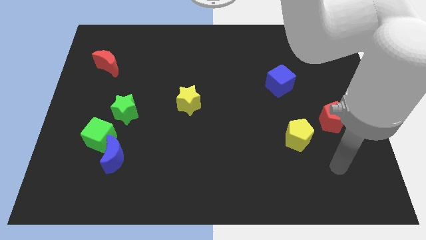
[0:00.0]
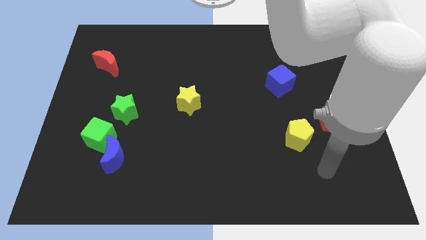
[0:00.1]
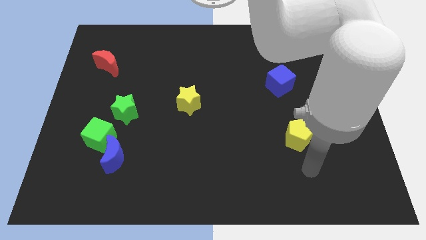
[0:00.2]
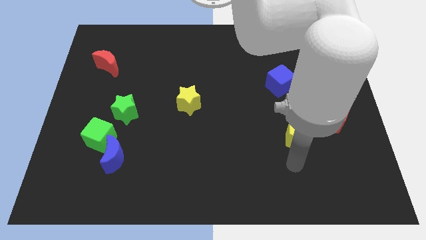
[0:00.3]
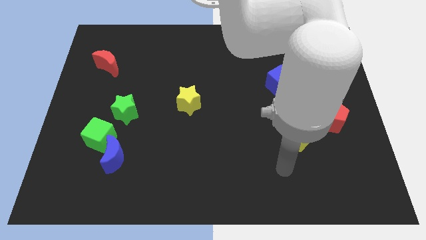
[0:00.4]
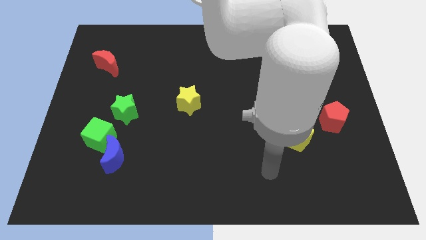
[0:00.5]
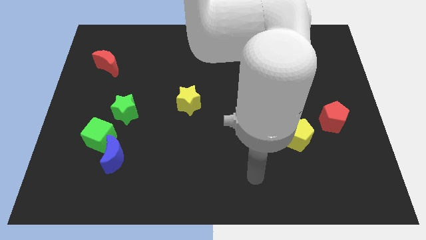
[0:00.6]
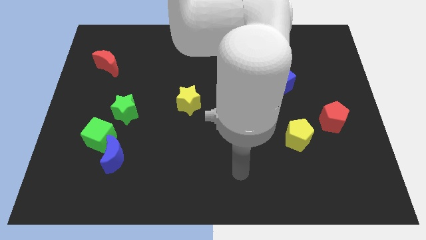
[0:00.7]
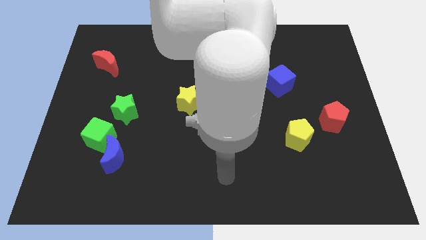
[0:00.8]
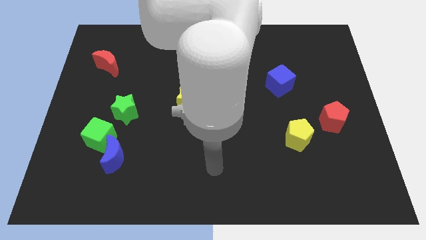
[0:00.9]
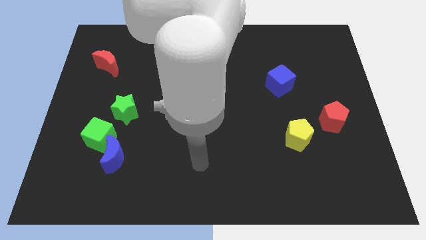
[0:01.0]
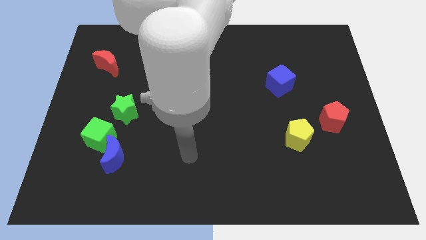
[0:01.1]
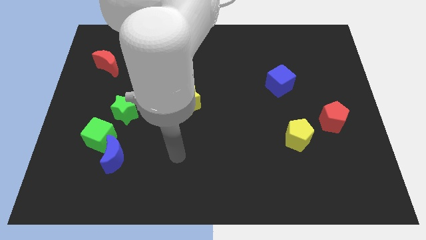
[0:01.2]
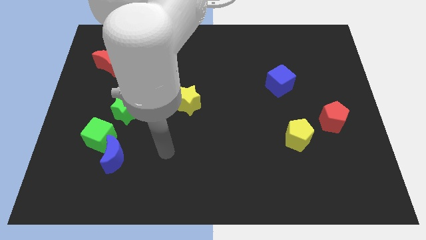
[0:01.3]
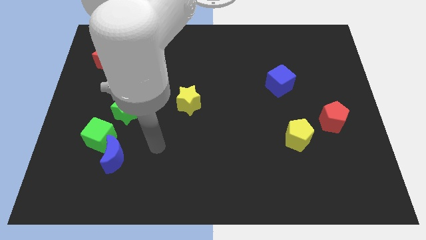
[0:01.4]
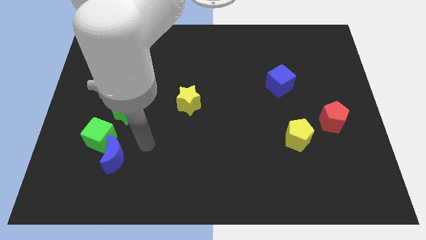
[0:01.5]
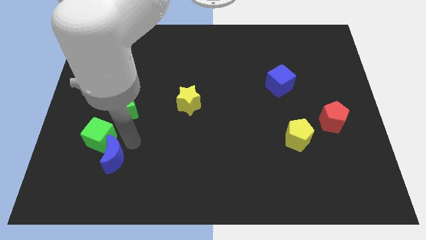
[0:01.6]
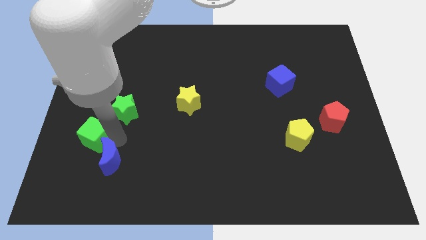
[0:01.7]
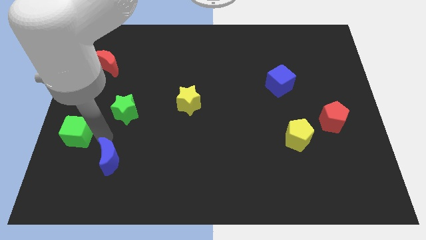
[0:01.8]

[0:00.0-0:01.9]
separate the blue moon from the green cube

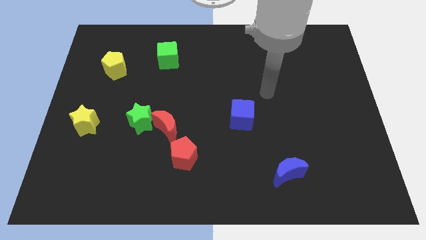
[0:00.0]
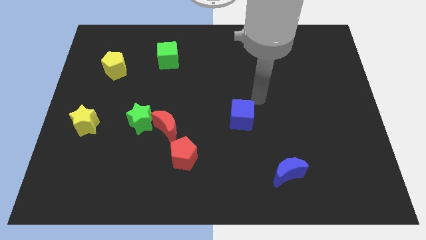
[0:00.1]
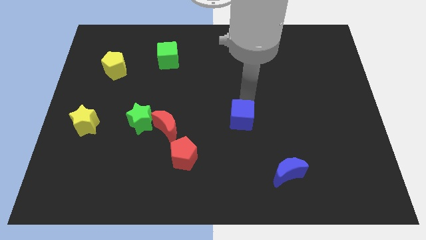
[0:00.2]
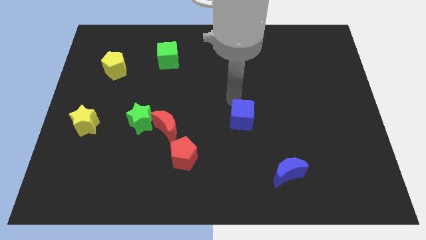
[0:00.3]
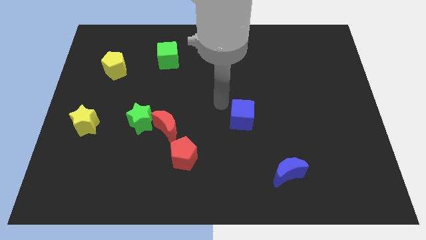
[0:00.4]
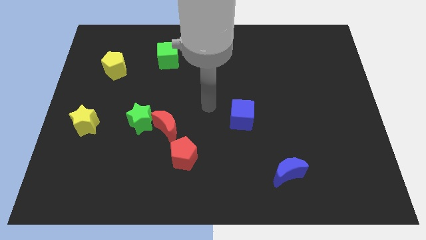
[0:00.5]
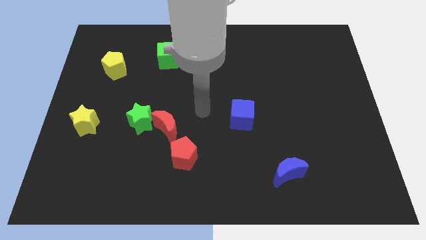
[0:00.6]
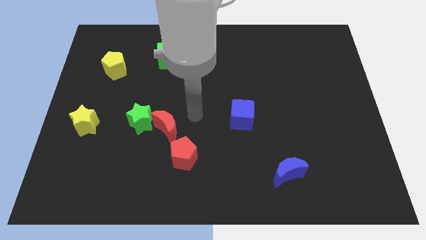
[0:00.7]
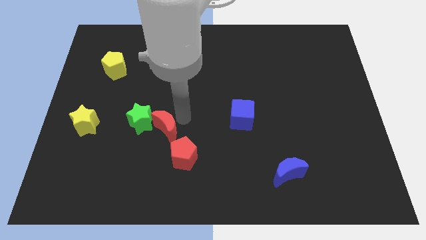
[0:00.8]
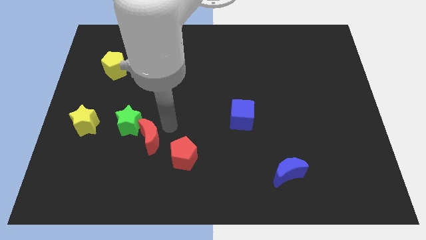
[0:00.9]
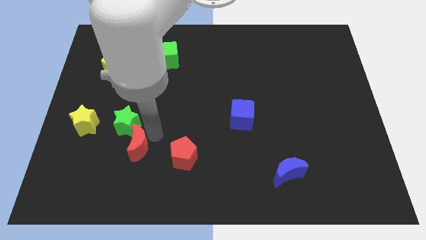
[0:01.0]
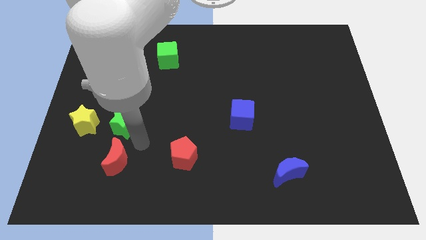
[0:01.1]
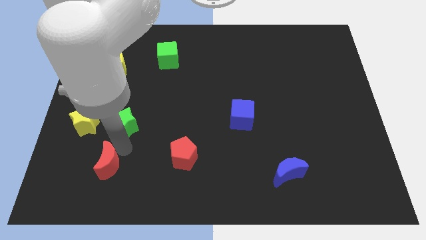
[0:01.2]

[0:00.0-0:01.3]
move the green star away from the red moon

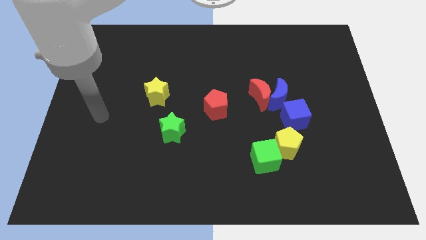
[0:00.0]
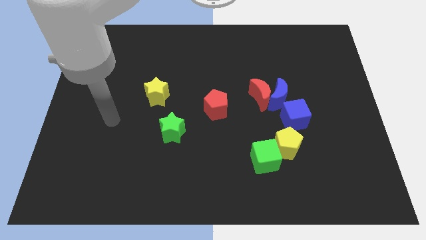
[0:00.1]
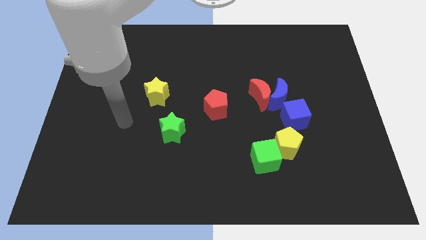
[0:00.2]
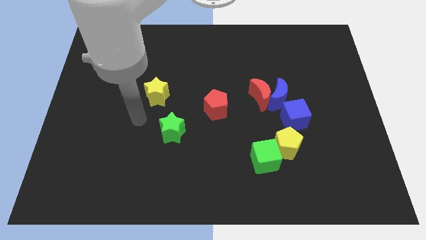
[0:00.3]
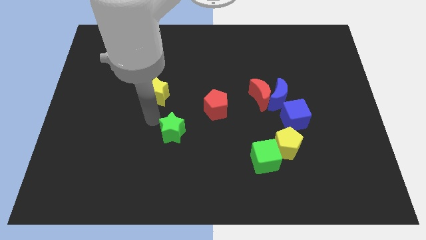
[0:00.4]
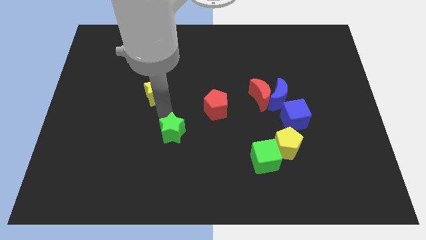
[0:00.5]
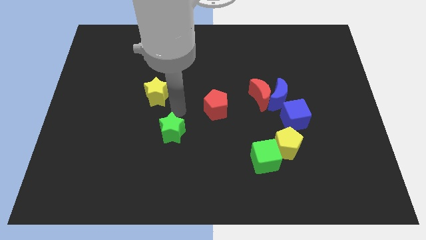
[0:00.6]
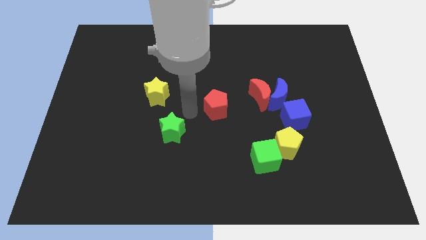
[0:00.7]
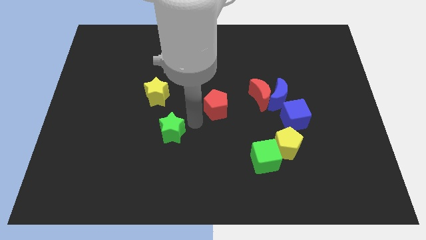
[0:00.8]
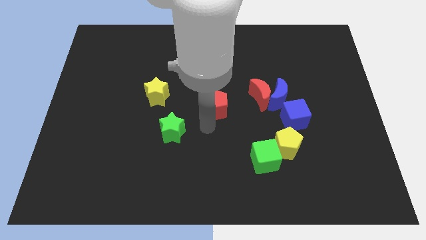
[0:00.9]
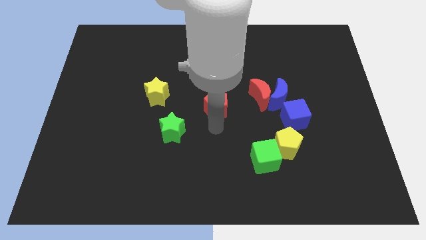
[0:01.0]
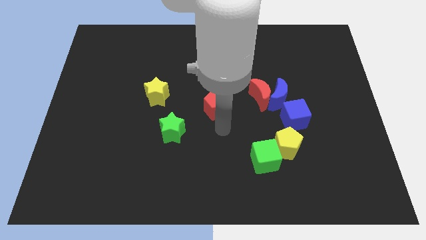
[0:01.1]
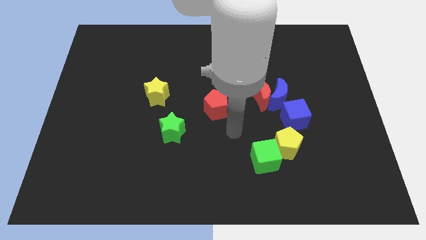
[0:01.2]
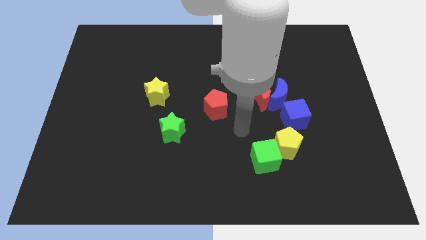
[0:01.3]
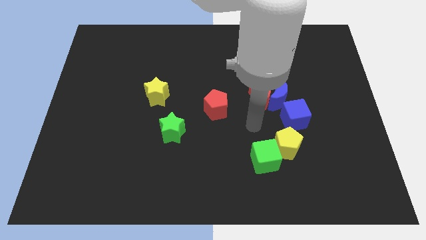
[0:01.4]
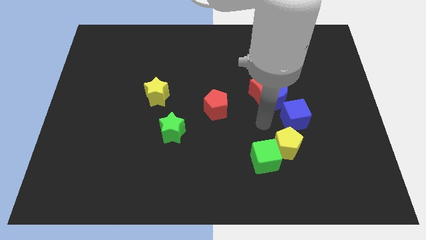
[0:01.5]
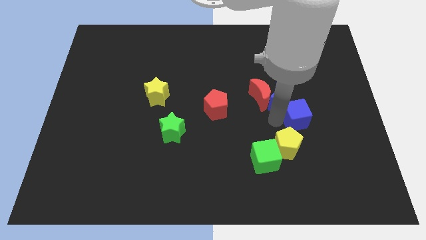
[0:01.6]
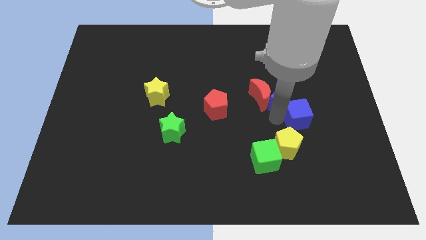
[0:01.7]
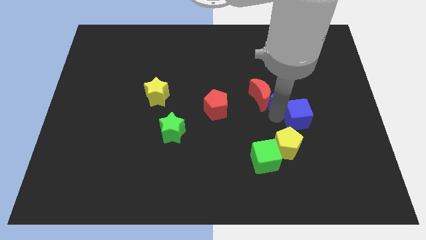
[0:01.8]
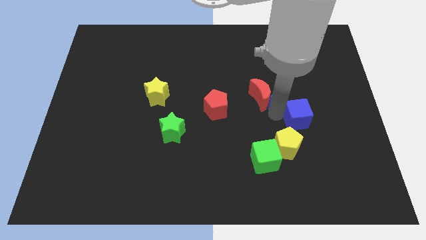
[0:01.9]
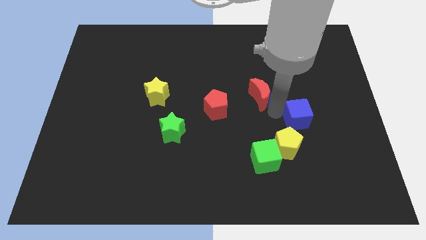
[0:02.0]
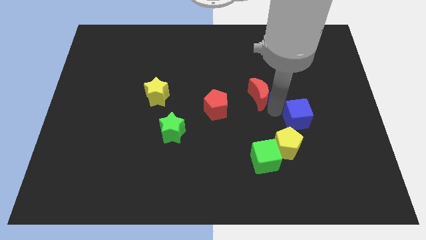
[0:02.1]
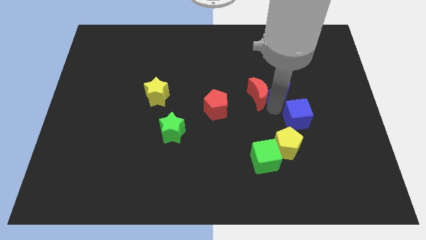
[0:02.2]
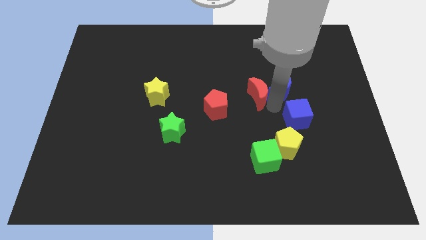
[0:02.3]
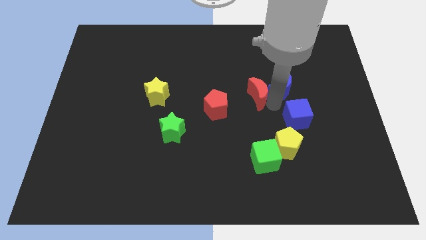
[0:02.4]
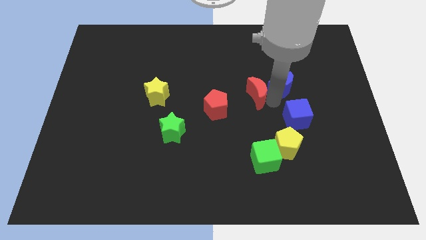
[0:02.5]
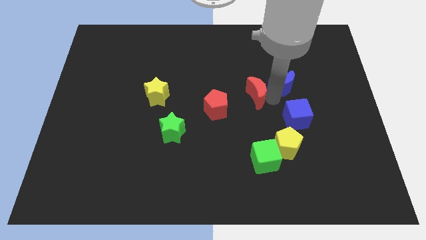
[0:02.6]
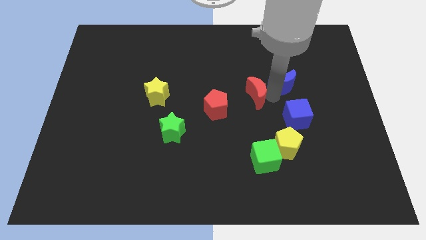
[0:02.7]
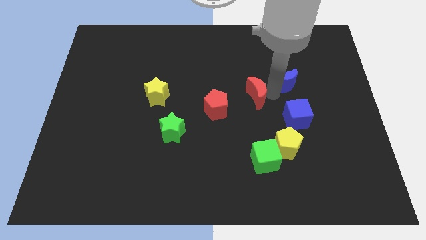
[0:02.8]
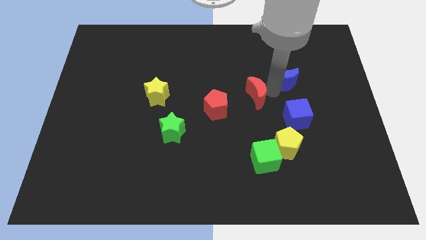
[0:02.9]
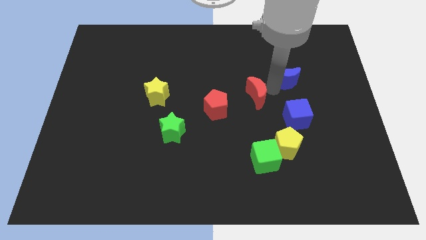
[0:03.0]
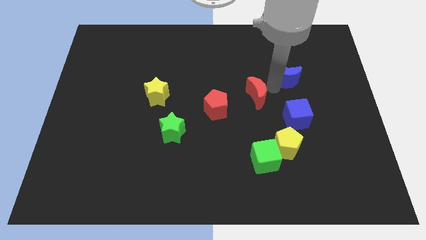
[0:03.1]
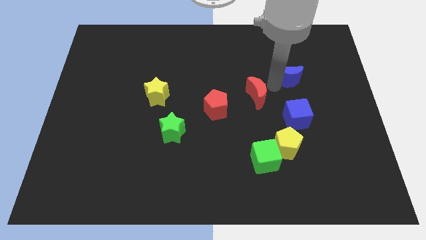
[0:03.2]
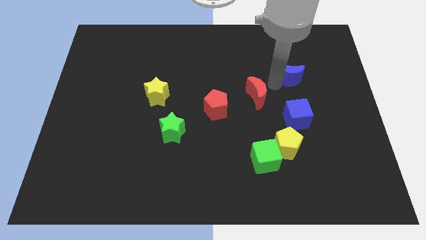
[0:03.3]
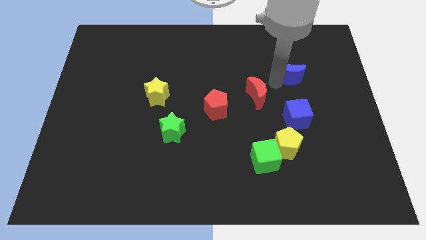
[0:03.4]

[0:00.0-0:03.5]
separate the blue moon from the red moon and blue cube

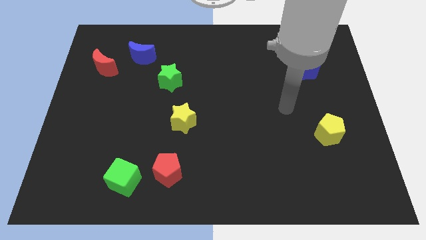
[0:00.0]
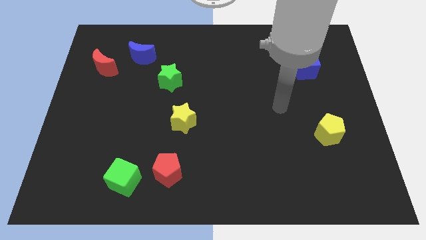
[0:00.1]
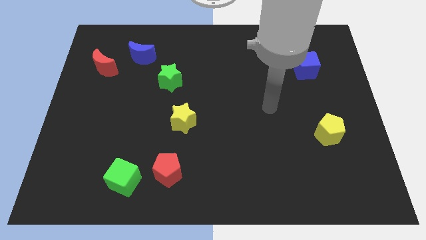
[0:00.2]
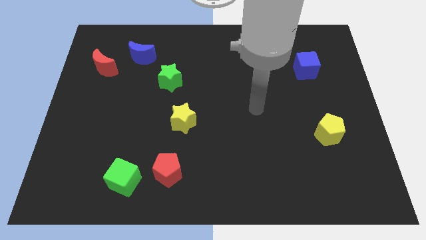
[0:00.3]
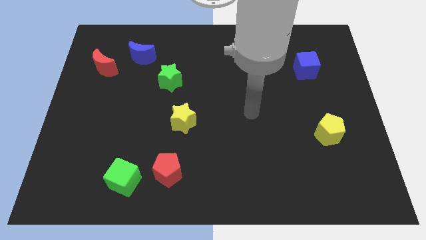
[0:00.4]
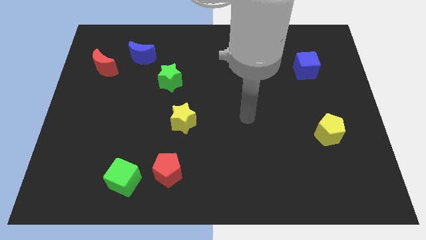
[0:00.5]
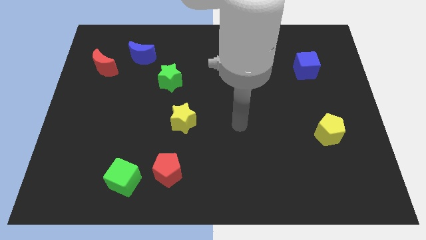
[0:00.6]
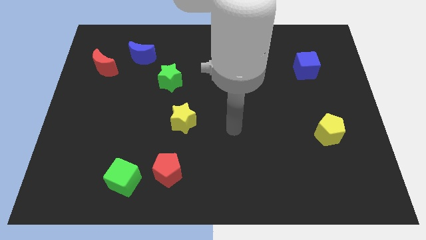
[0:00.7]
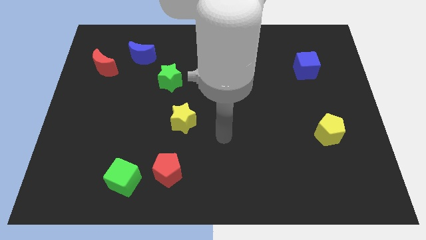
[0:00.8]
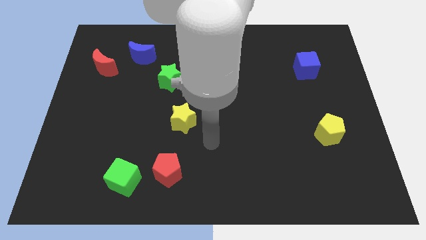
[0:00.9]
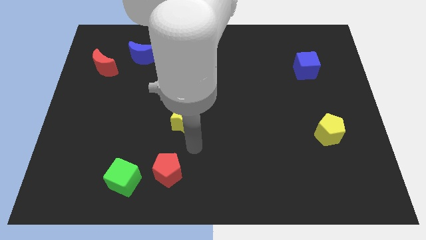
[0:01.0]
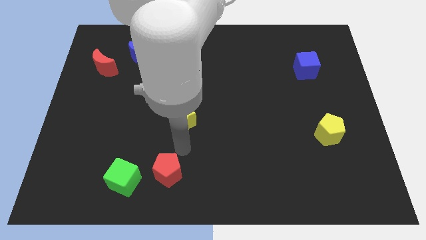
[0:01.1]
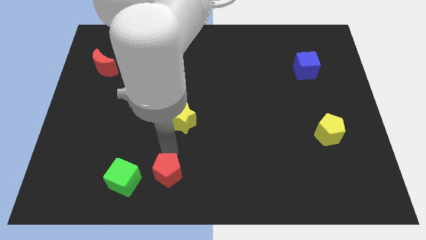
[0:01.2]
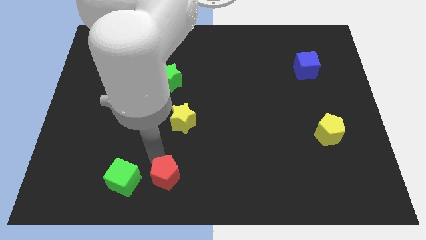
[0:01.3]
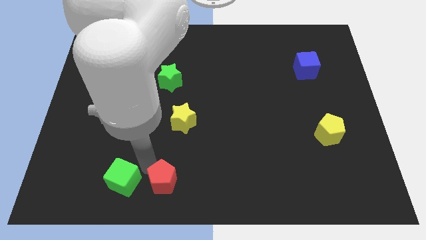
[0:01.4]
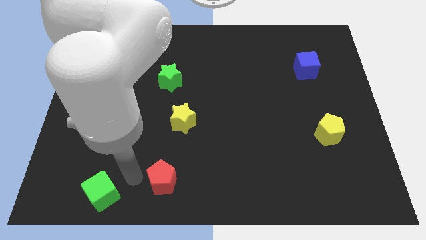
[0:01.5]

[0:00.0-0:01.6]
pull the red pentagon apart from the green cube

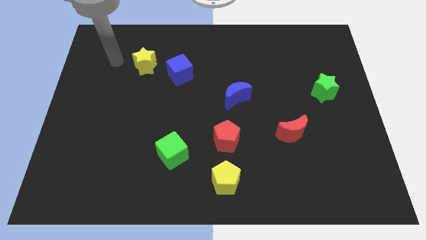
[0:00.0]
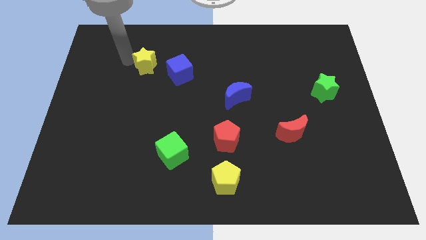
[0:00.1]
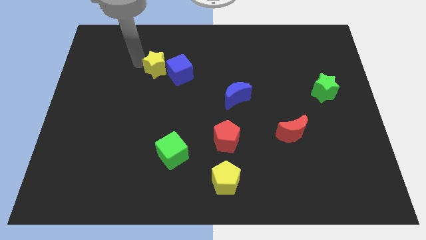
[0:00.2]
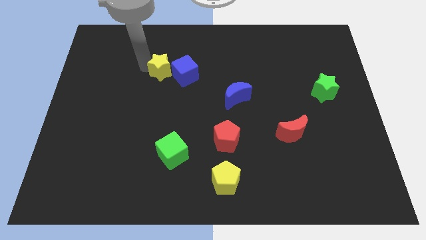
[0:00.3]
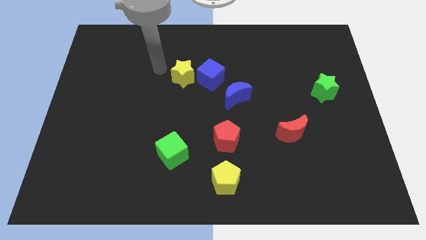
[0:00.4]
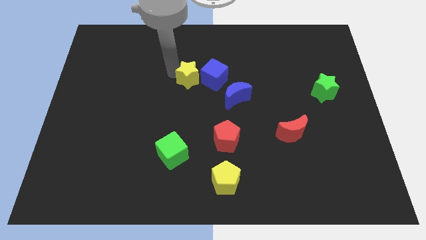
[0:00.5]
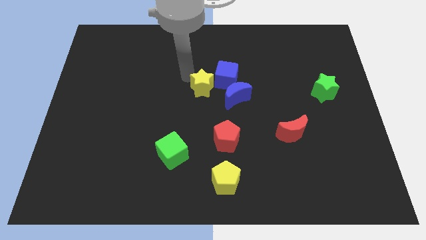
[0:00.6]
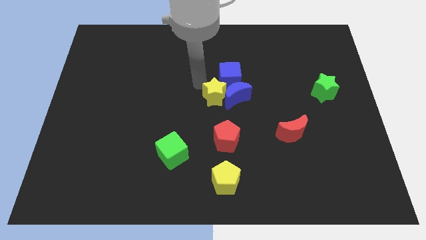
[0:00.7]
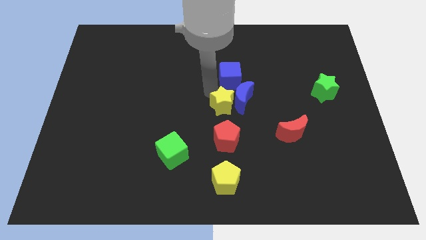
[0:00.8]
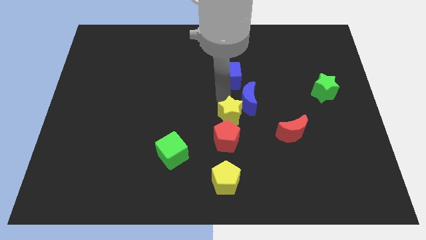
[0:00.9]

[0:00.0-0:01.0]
separate the blue cube from the yellow star
